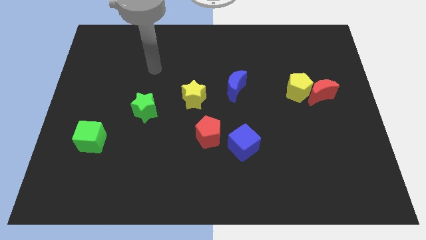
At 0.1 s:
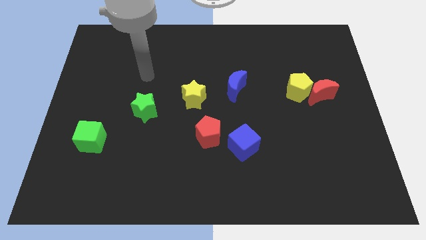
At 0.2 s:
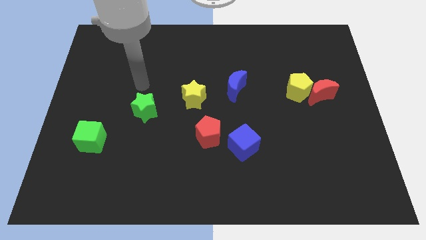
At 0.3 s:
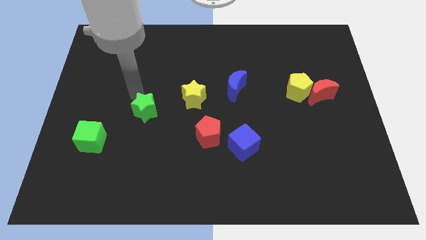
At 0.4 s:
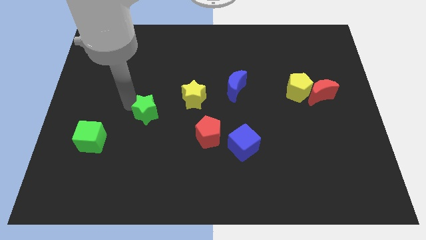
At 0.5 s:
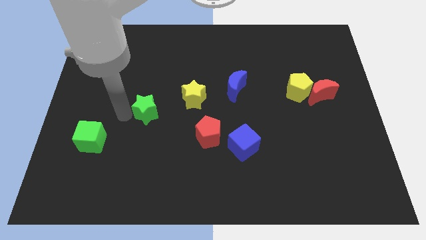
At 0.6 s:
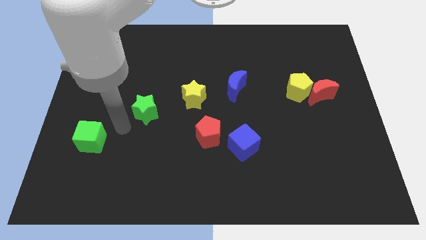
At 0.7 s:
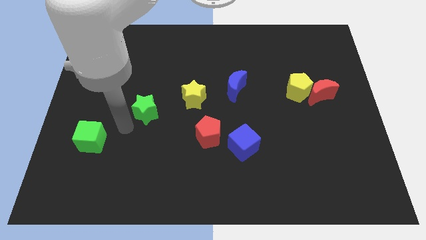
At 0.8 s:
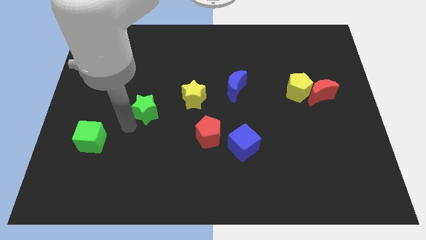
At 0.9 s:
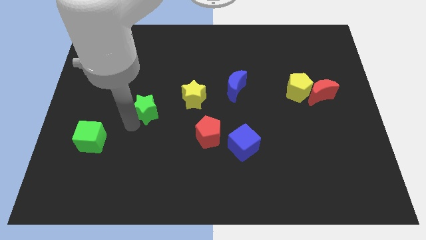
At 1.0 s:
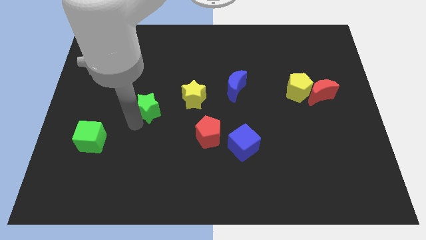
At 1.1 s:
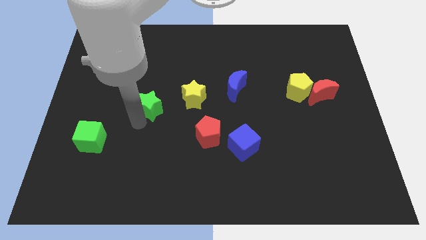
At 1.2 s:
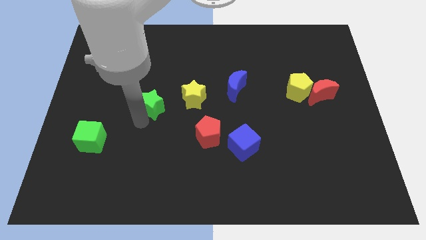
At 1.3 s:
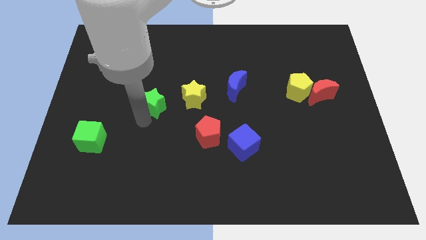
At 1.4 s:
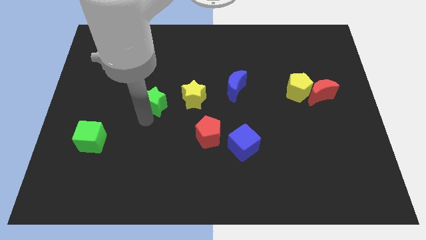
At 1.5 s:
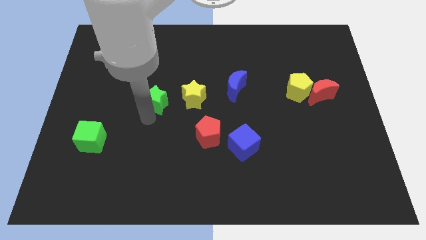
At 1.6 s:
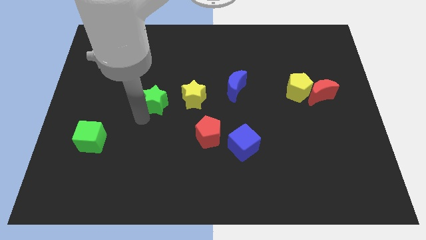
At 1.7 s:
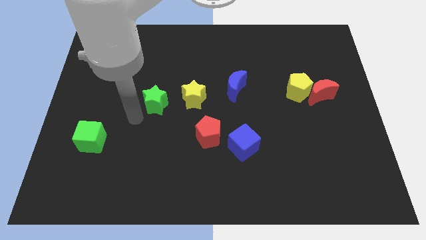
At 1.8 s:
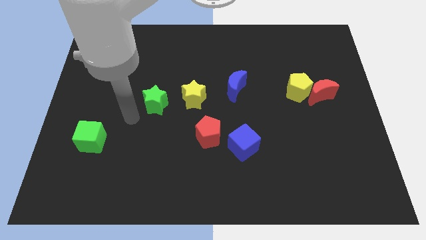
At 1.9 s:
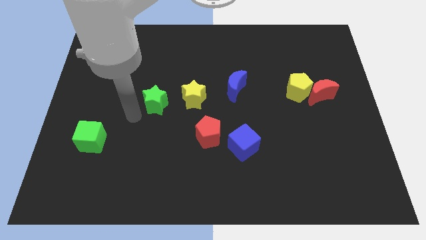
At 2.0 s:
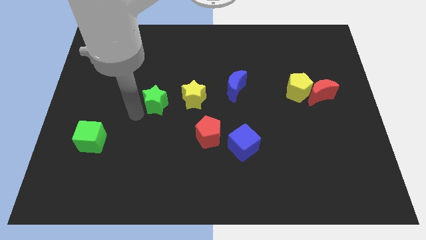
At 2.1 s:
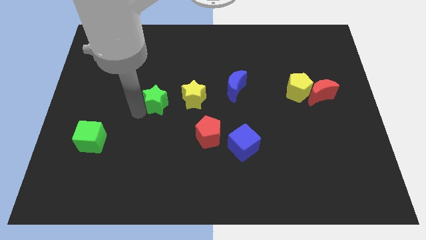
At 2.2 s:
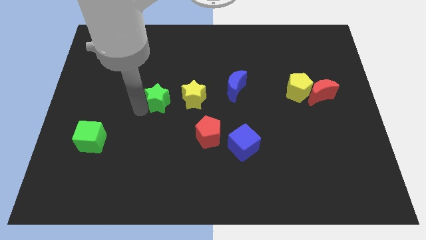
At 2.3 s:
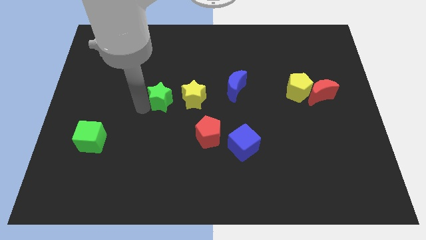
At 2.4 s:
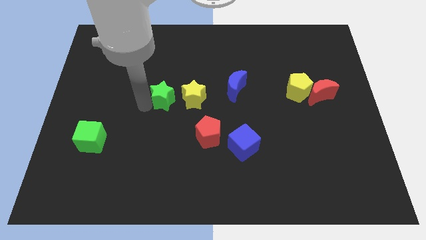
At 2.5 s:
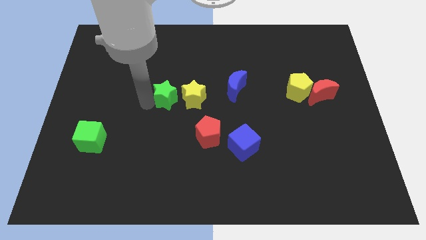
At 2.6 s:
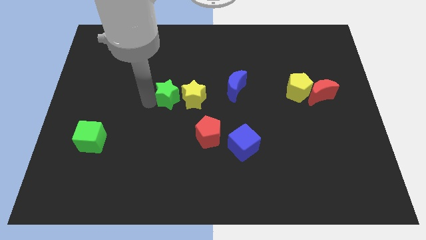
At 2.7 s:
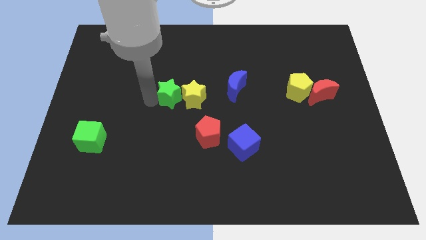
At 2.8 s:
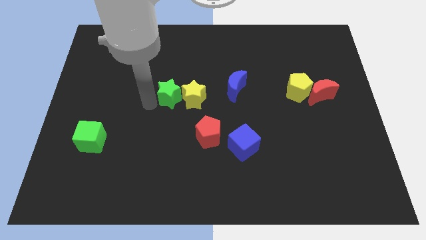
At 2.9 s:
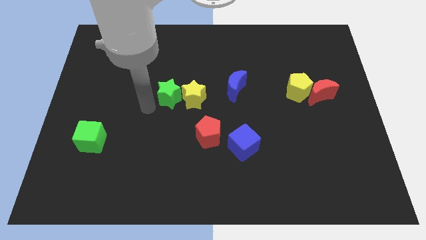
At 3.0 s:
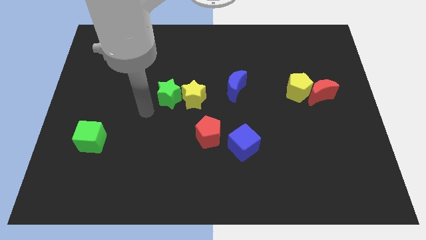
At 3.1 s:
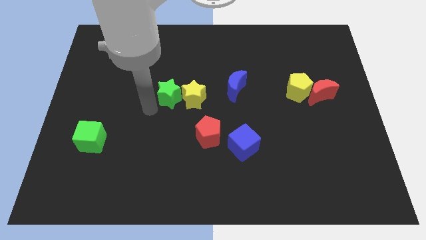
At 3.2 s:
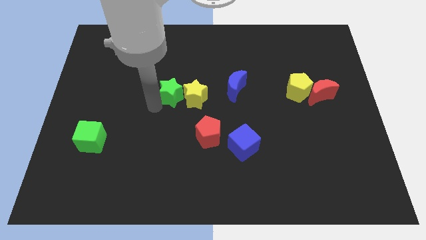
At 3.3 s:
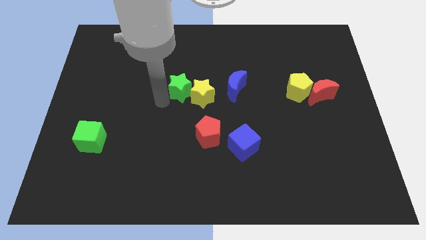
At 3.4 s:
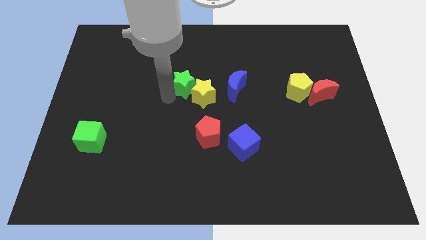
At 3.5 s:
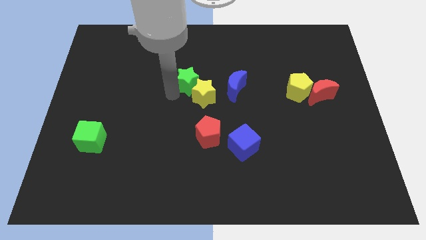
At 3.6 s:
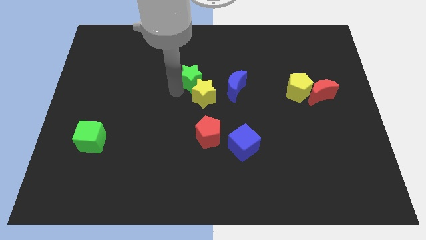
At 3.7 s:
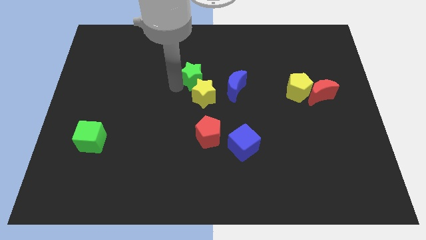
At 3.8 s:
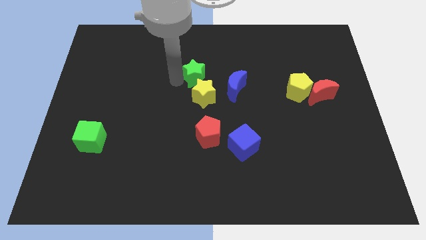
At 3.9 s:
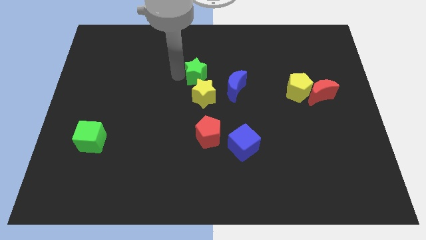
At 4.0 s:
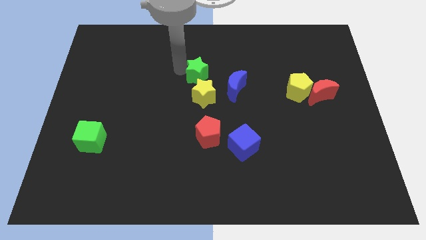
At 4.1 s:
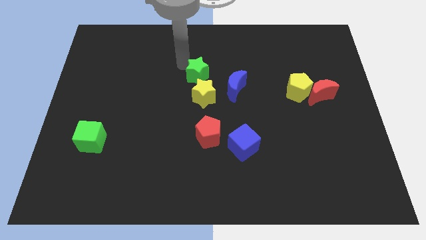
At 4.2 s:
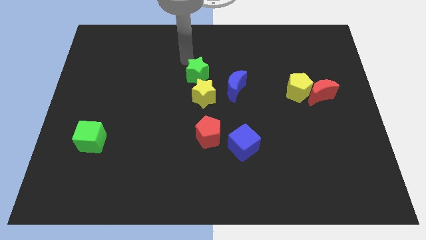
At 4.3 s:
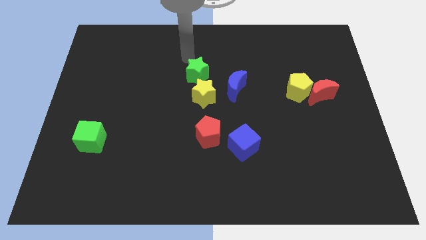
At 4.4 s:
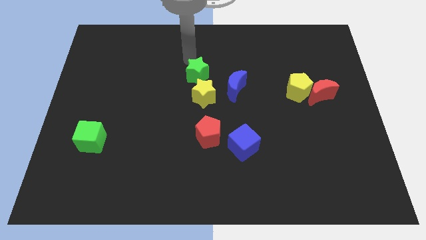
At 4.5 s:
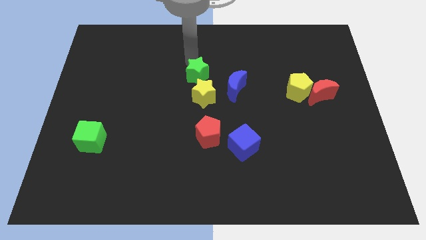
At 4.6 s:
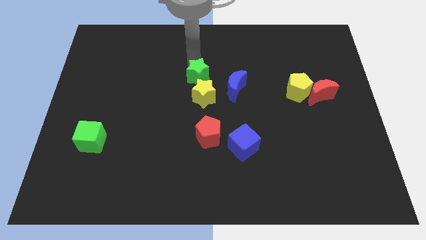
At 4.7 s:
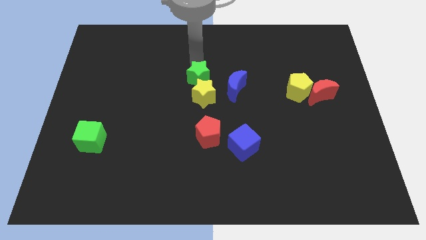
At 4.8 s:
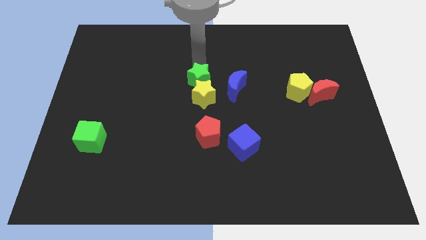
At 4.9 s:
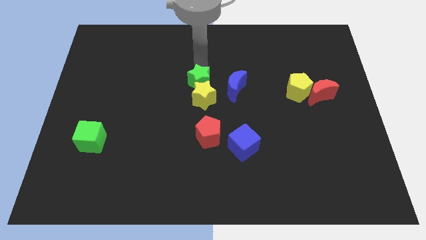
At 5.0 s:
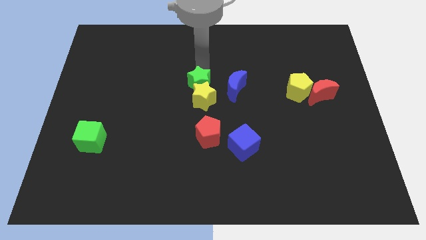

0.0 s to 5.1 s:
put the green star to the top side of the red pentagon

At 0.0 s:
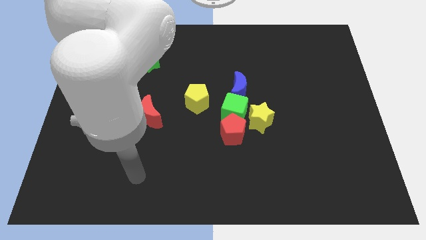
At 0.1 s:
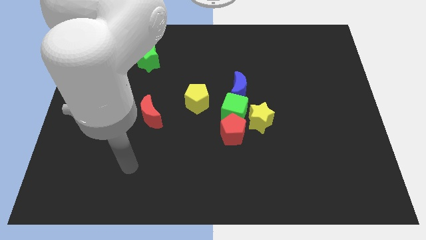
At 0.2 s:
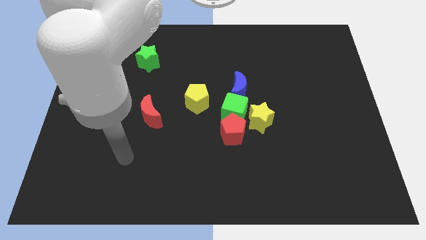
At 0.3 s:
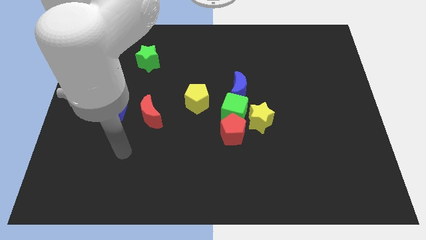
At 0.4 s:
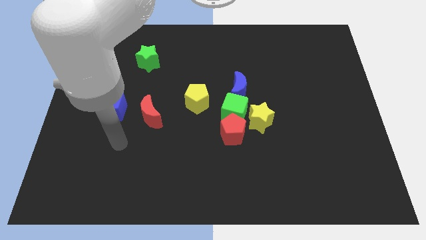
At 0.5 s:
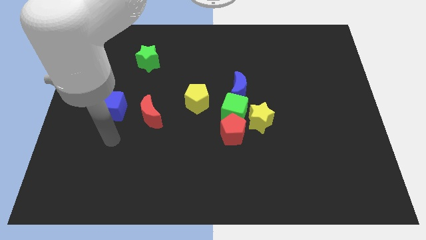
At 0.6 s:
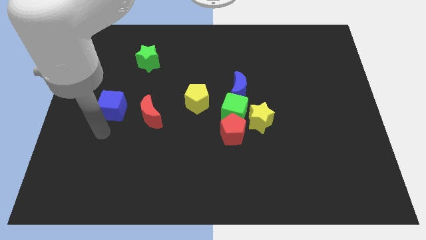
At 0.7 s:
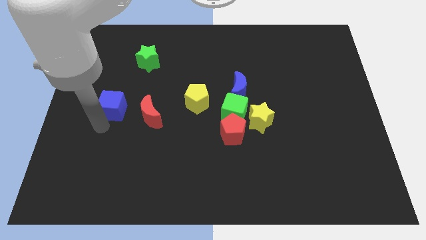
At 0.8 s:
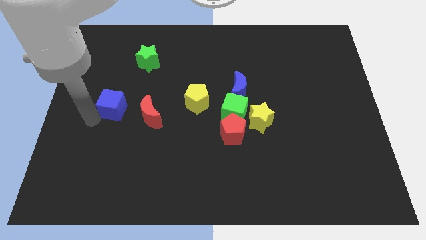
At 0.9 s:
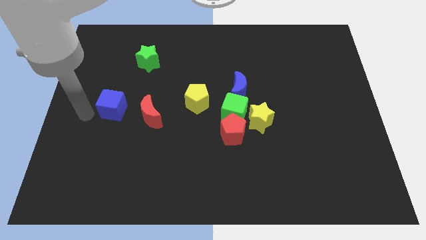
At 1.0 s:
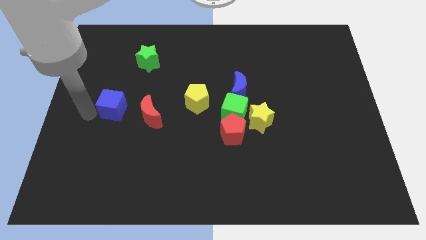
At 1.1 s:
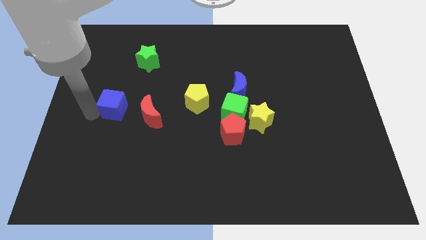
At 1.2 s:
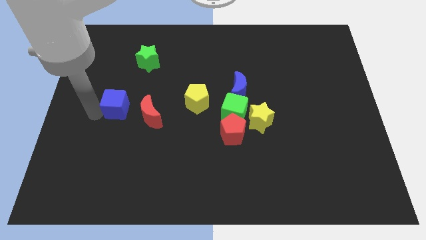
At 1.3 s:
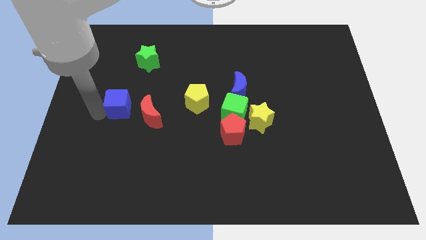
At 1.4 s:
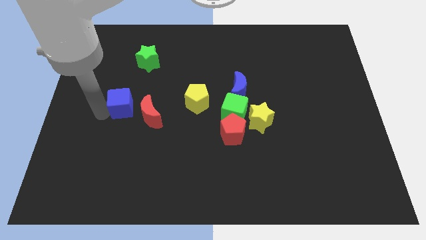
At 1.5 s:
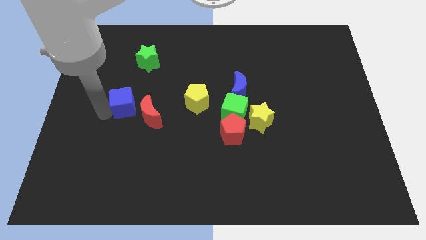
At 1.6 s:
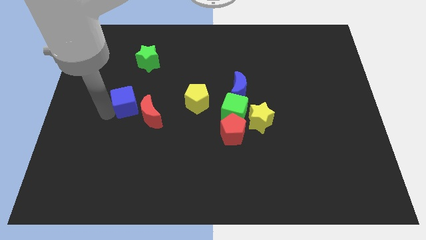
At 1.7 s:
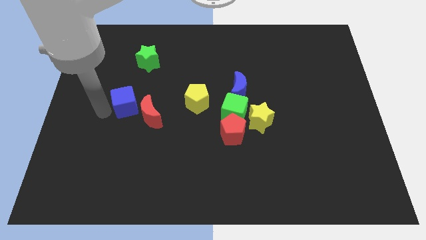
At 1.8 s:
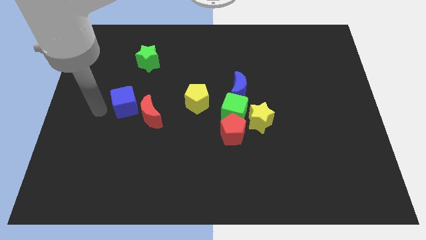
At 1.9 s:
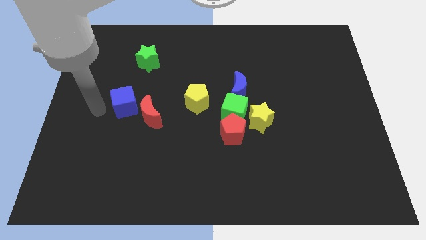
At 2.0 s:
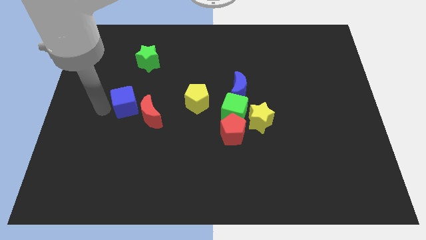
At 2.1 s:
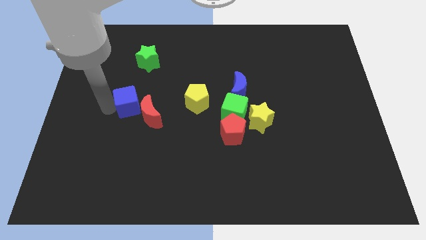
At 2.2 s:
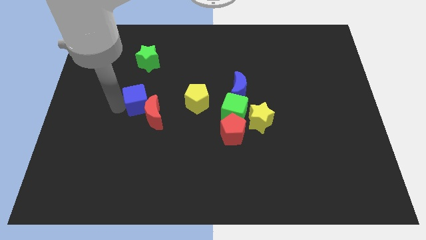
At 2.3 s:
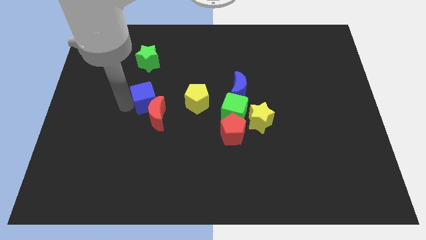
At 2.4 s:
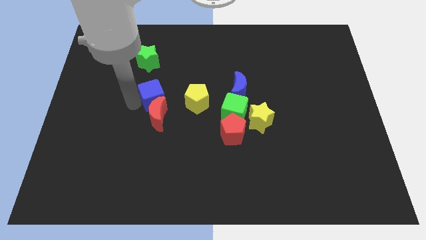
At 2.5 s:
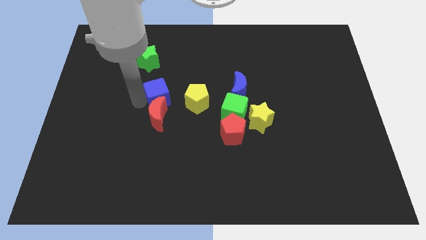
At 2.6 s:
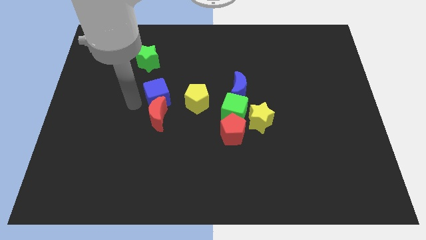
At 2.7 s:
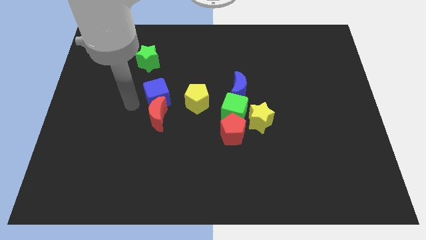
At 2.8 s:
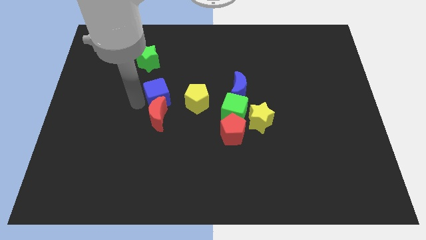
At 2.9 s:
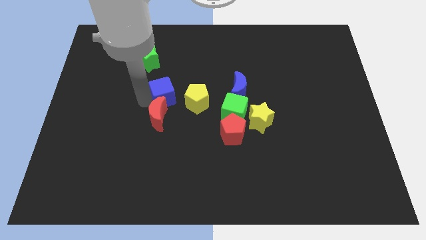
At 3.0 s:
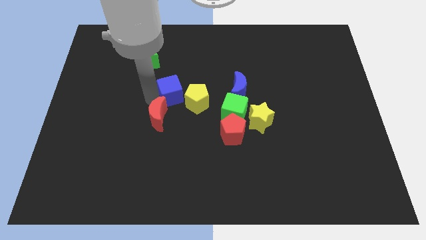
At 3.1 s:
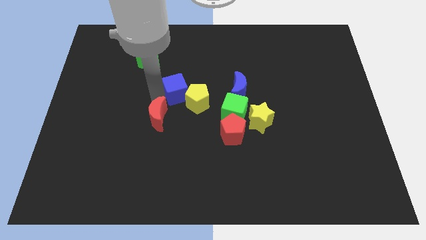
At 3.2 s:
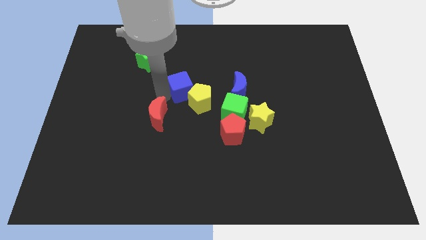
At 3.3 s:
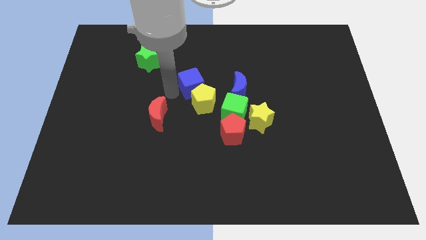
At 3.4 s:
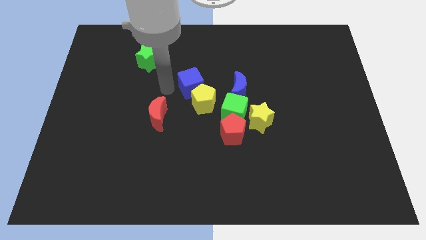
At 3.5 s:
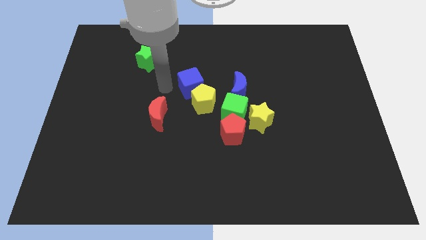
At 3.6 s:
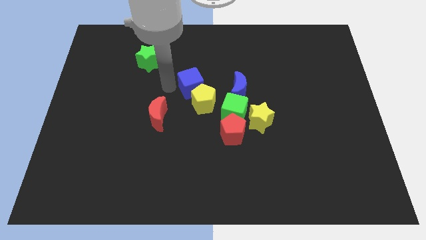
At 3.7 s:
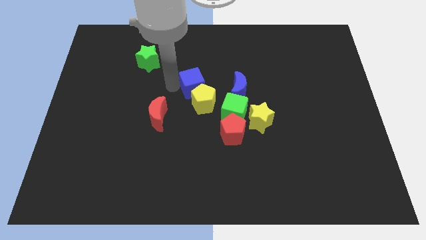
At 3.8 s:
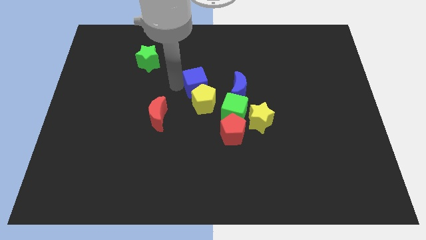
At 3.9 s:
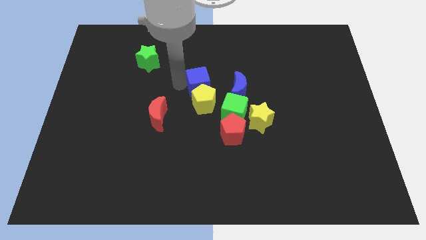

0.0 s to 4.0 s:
move the blue cube to the top right side of the yellow pentagon
